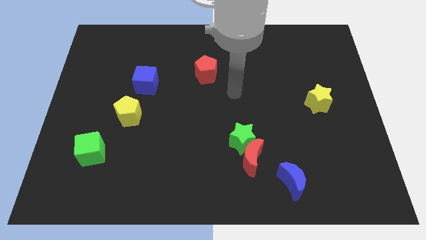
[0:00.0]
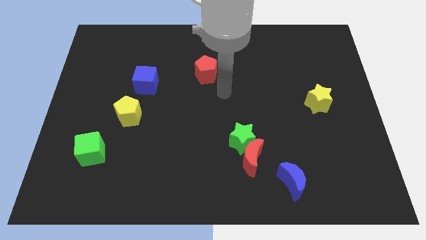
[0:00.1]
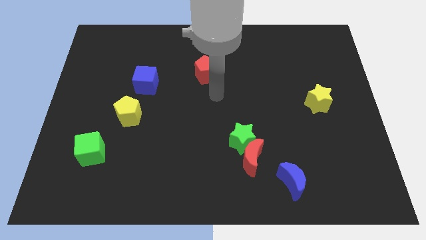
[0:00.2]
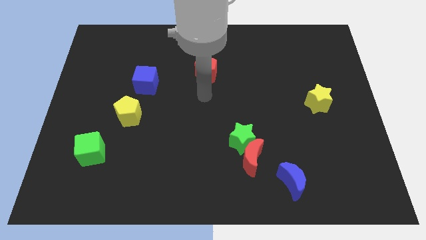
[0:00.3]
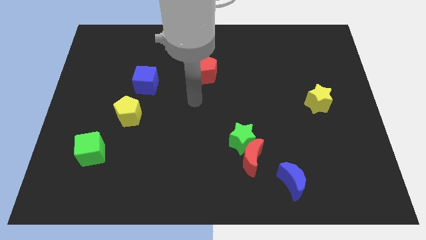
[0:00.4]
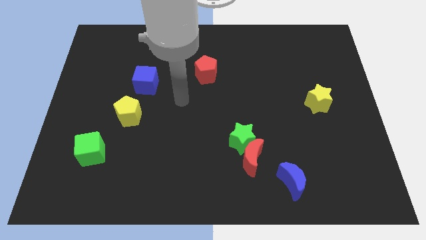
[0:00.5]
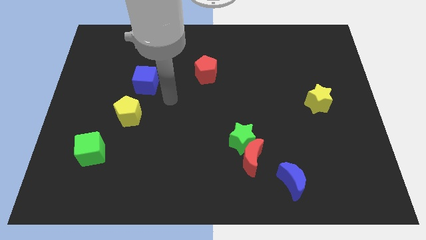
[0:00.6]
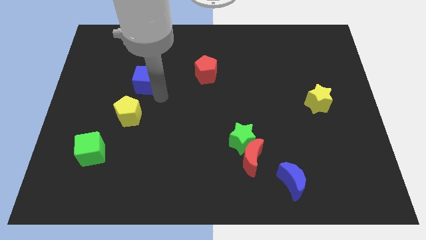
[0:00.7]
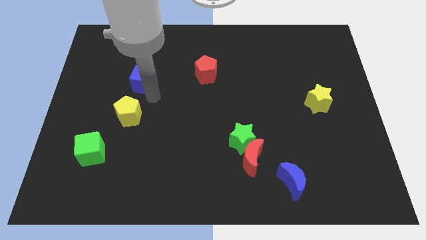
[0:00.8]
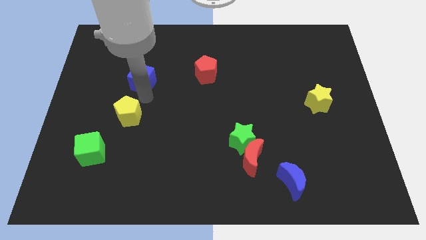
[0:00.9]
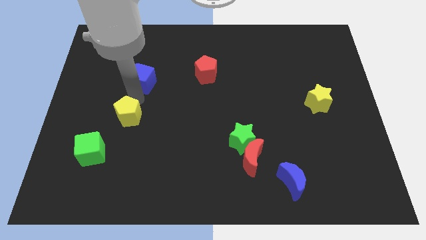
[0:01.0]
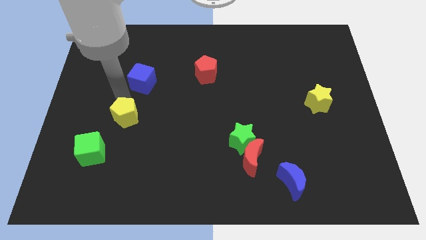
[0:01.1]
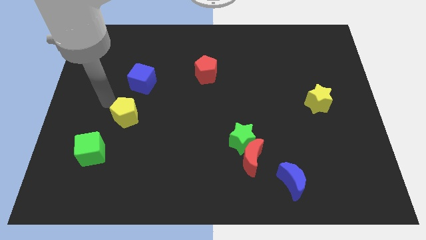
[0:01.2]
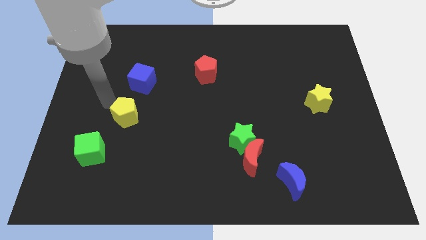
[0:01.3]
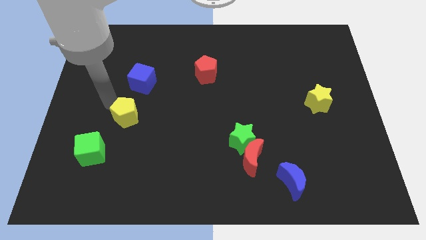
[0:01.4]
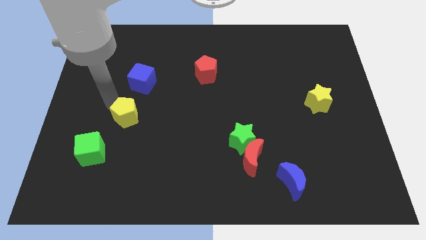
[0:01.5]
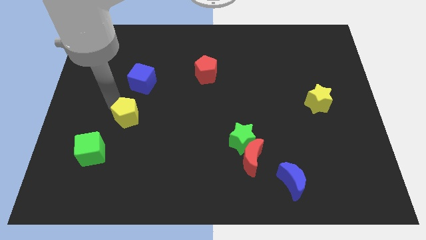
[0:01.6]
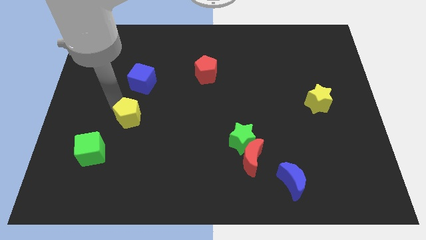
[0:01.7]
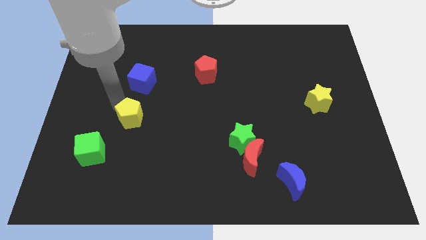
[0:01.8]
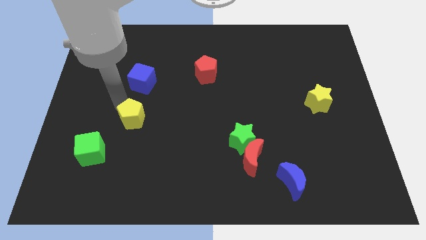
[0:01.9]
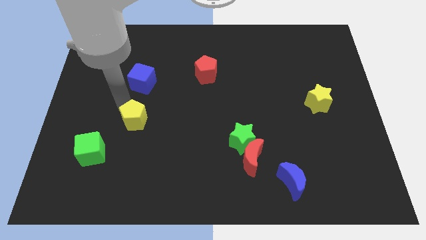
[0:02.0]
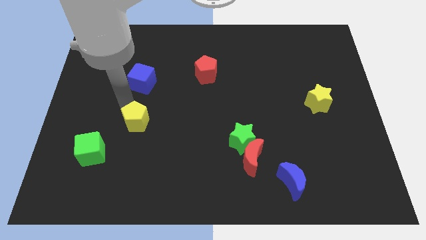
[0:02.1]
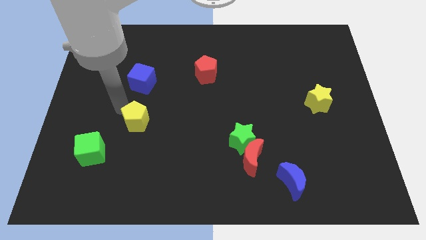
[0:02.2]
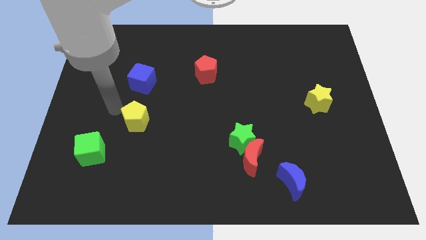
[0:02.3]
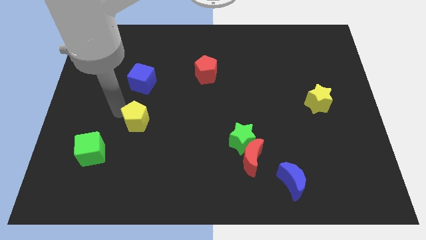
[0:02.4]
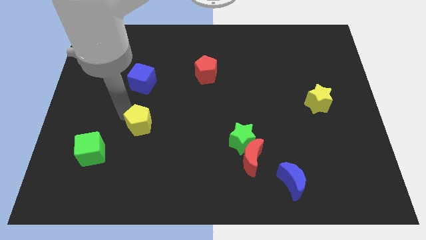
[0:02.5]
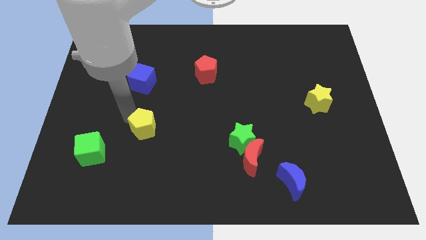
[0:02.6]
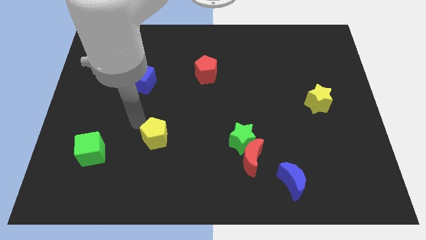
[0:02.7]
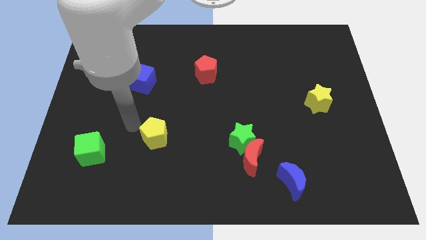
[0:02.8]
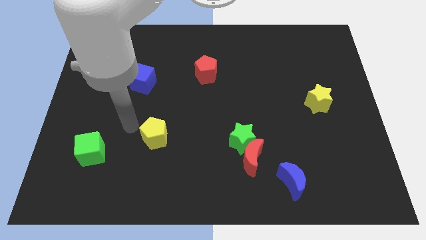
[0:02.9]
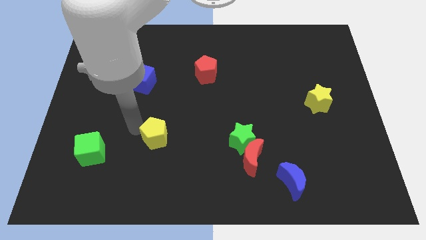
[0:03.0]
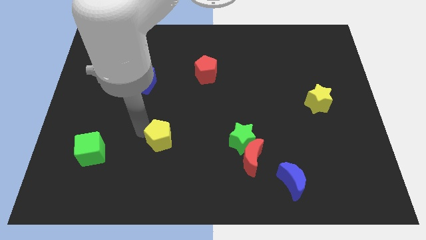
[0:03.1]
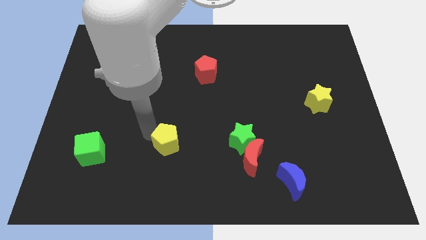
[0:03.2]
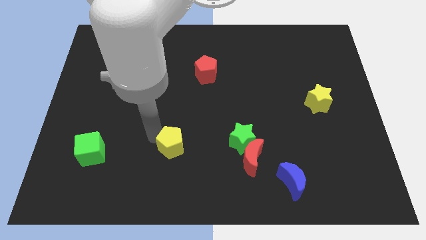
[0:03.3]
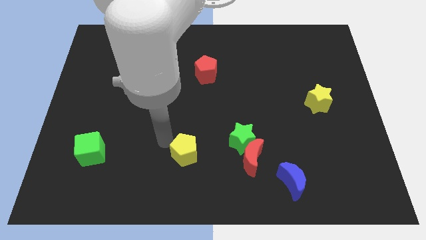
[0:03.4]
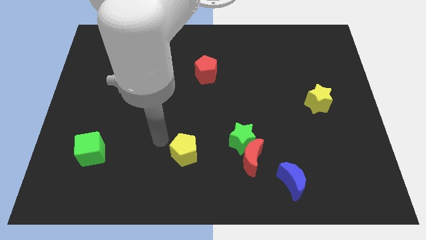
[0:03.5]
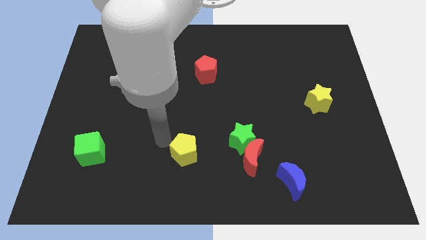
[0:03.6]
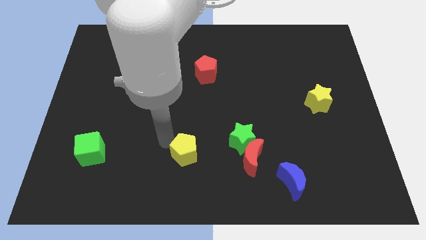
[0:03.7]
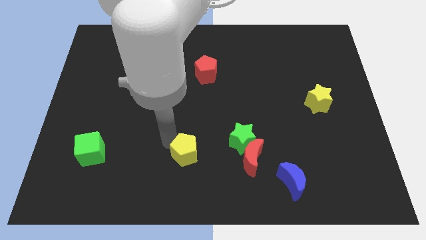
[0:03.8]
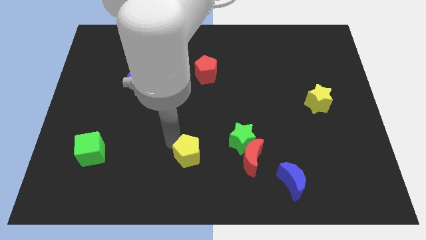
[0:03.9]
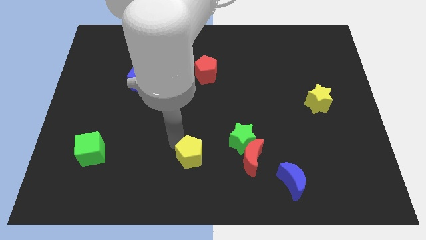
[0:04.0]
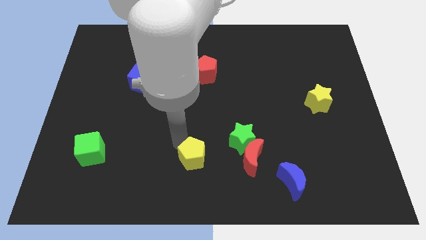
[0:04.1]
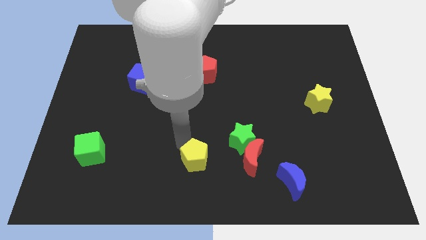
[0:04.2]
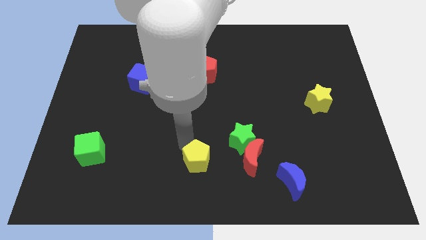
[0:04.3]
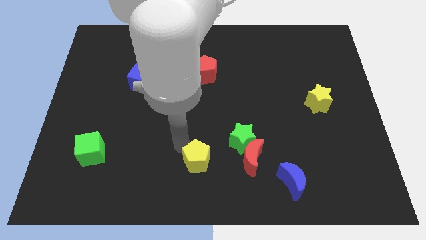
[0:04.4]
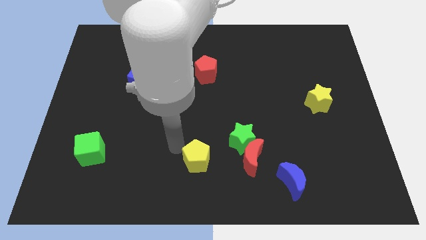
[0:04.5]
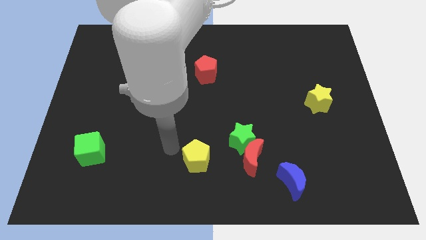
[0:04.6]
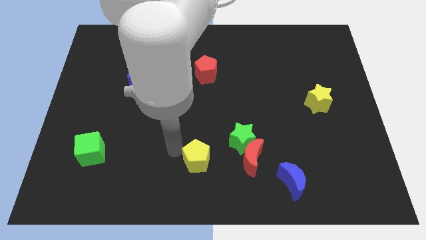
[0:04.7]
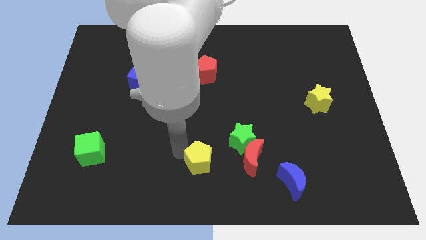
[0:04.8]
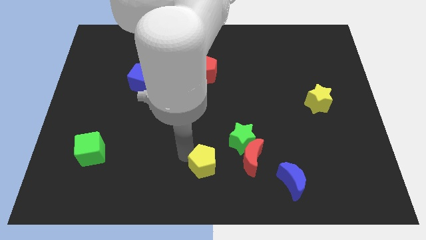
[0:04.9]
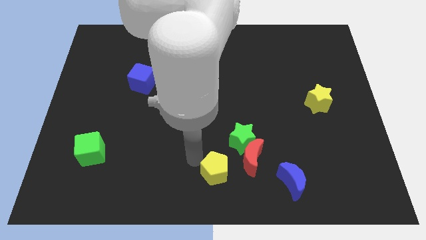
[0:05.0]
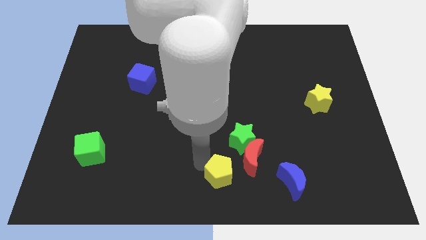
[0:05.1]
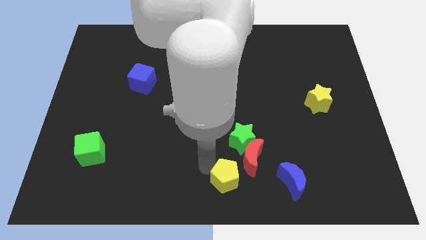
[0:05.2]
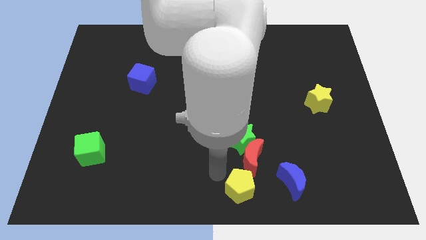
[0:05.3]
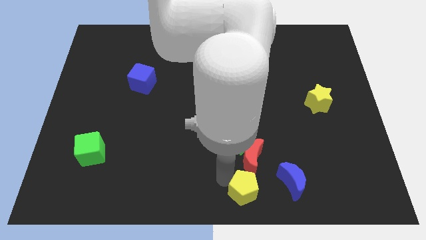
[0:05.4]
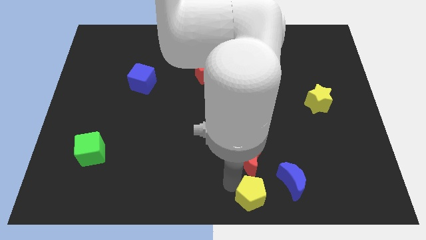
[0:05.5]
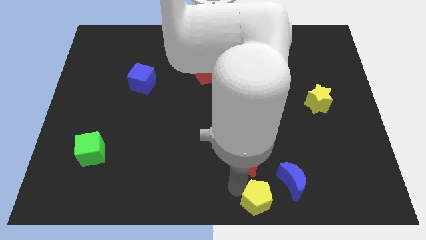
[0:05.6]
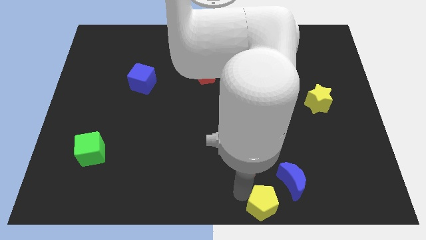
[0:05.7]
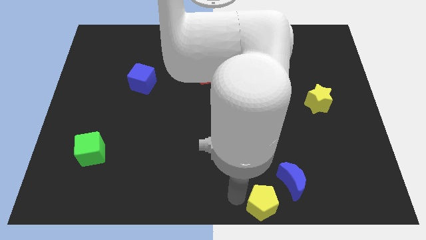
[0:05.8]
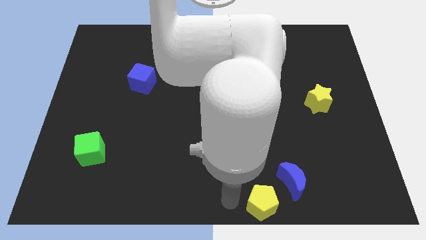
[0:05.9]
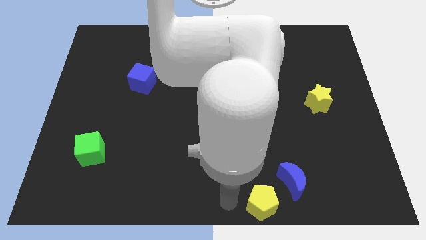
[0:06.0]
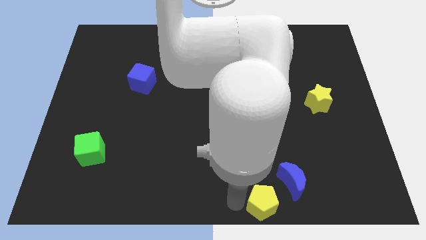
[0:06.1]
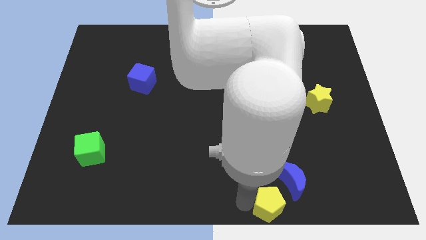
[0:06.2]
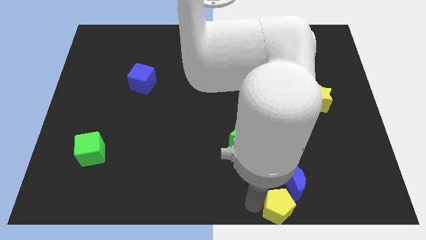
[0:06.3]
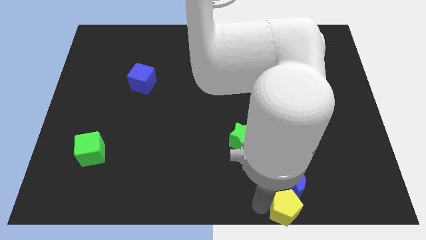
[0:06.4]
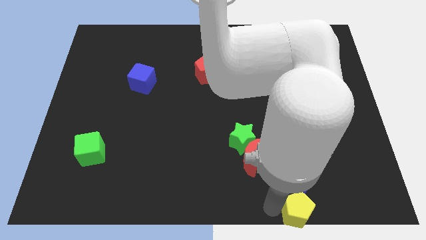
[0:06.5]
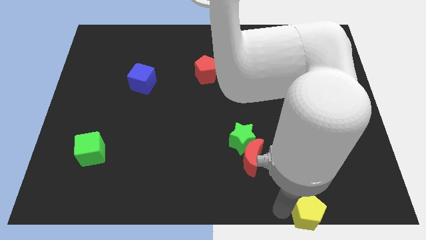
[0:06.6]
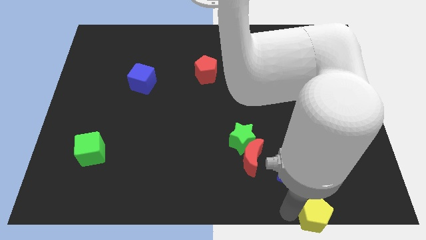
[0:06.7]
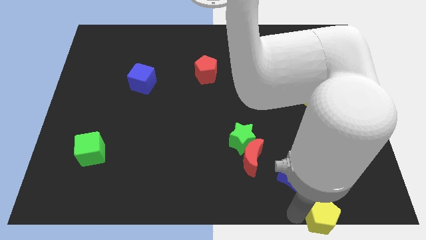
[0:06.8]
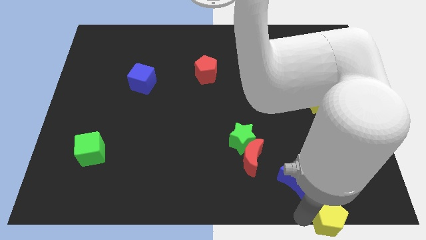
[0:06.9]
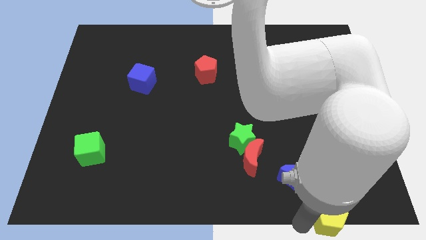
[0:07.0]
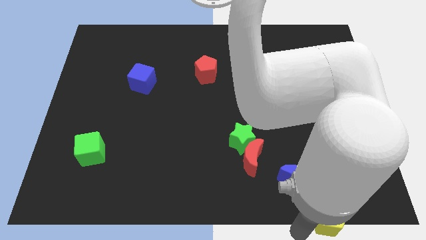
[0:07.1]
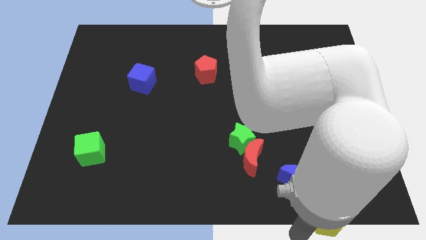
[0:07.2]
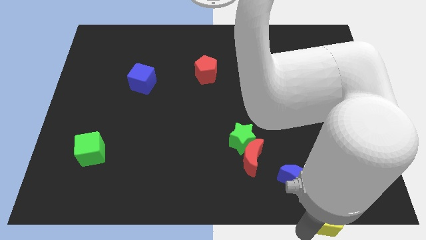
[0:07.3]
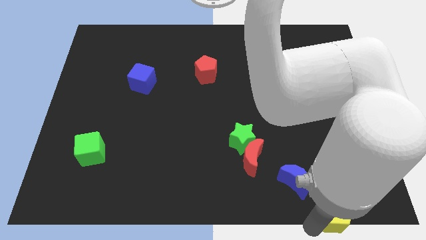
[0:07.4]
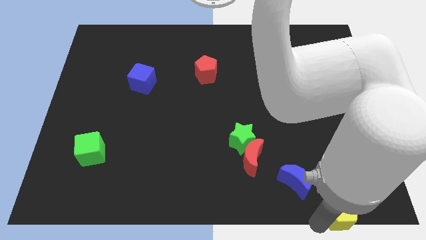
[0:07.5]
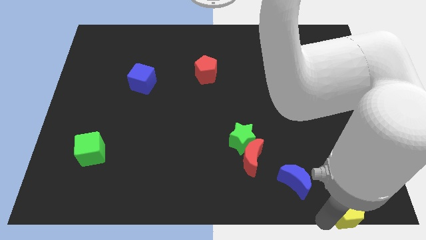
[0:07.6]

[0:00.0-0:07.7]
push the yellow pentagon to the bottom right of the board

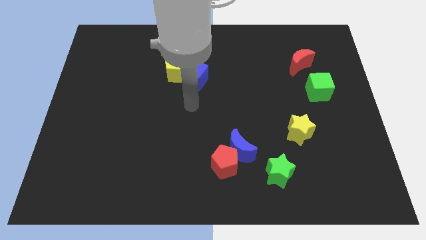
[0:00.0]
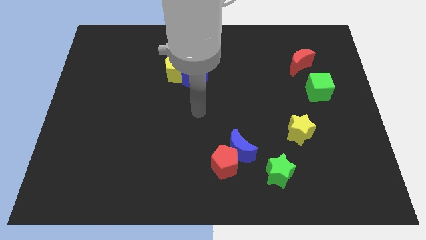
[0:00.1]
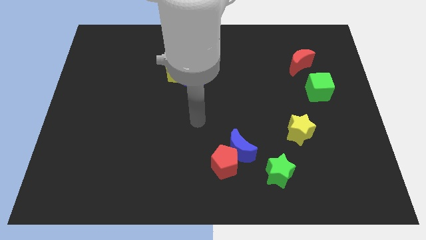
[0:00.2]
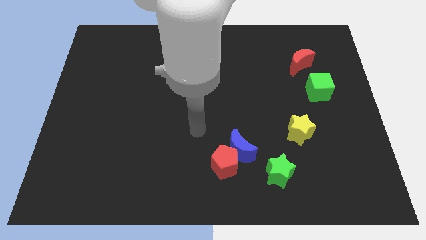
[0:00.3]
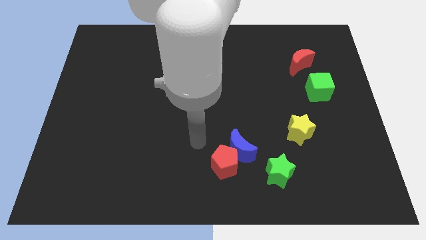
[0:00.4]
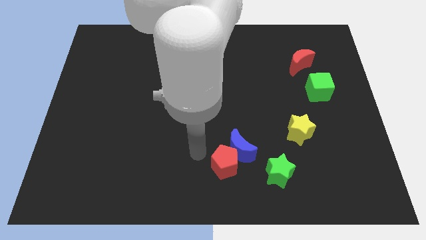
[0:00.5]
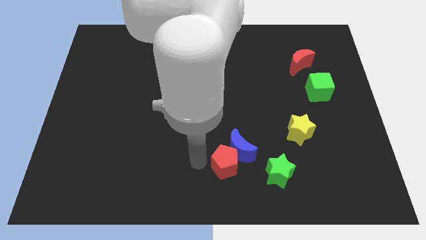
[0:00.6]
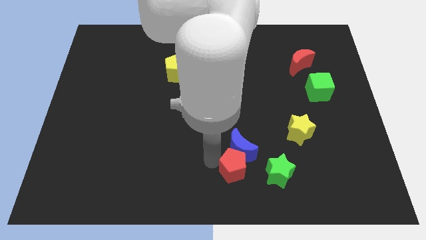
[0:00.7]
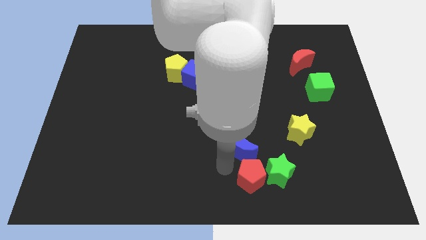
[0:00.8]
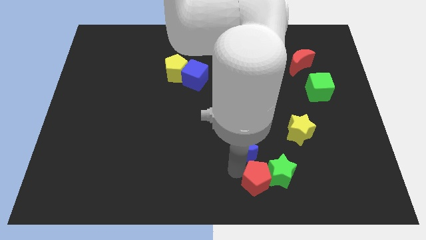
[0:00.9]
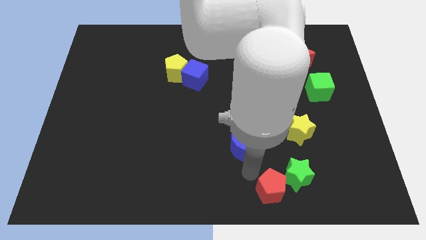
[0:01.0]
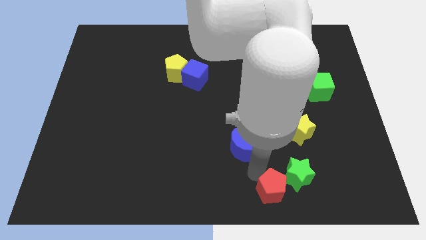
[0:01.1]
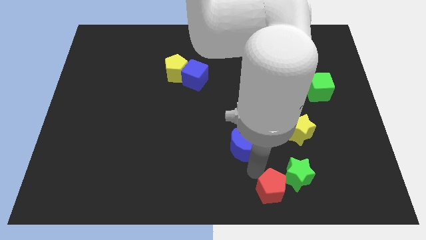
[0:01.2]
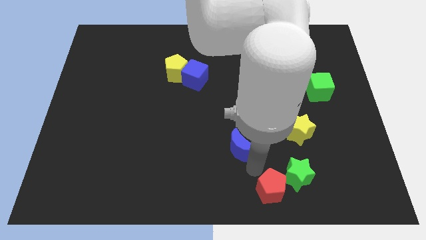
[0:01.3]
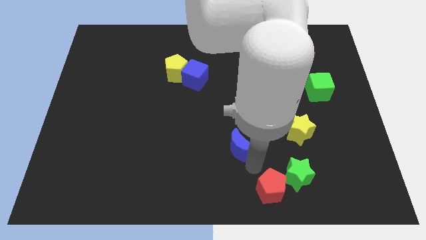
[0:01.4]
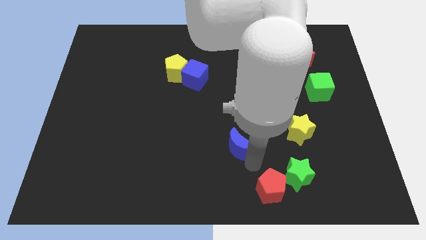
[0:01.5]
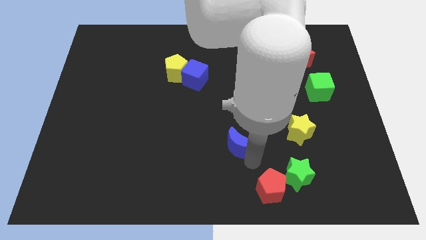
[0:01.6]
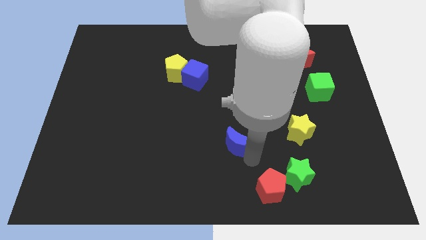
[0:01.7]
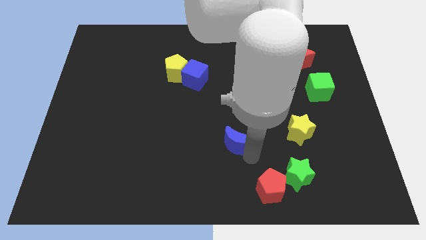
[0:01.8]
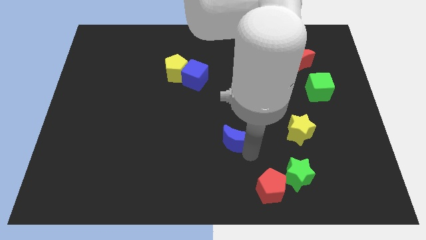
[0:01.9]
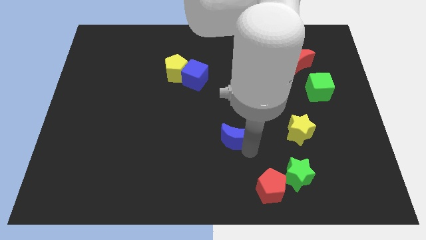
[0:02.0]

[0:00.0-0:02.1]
push the blue moon to the middle of the board
